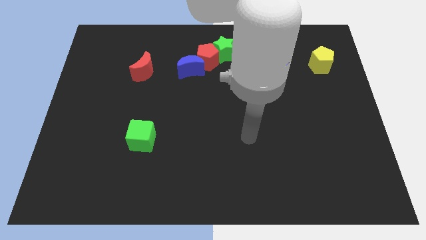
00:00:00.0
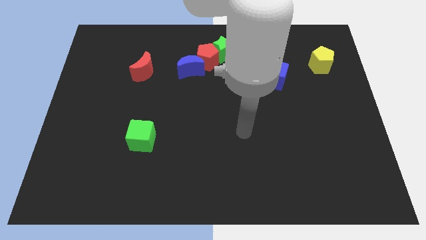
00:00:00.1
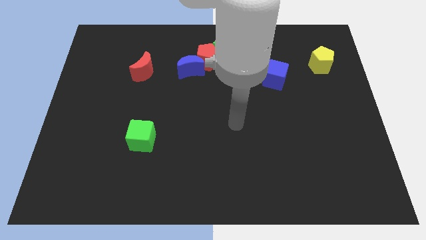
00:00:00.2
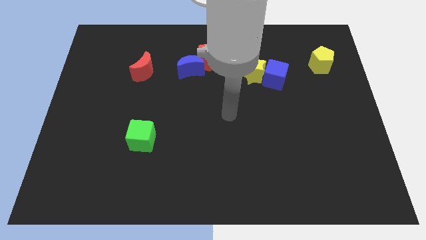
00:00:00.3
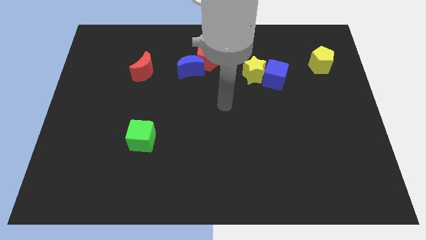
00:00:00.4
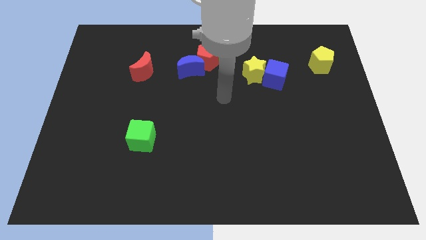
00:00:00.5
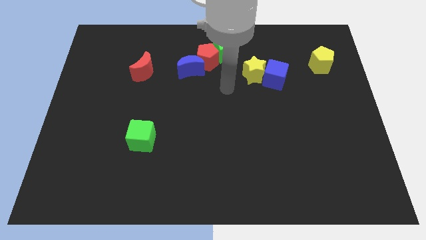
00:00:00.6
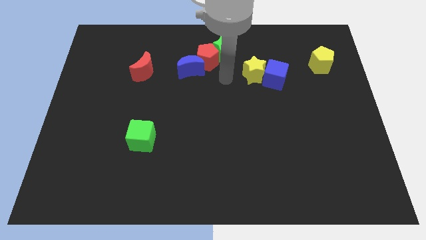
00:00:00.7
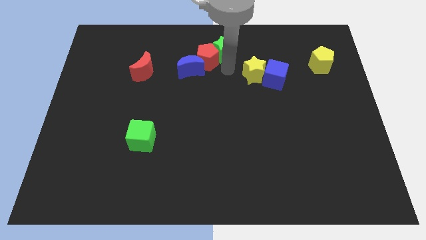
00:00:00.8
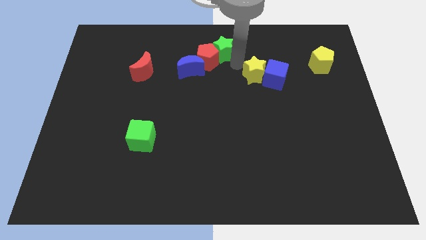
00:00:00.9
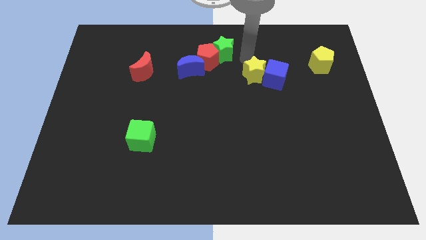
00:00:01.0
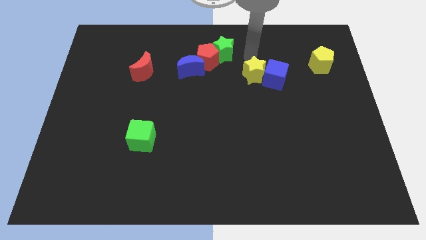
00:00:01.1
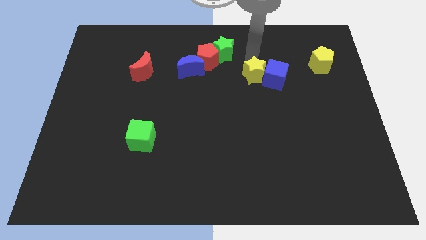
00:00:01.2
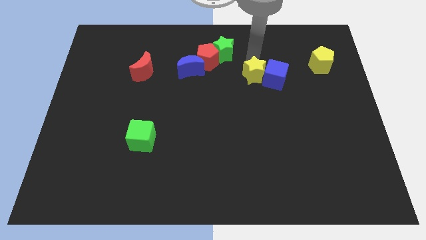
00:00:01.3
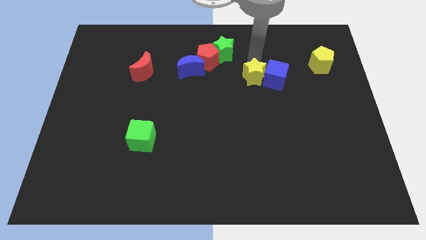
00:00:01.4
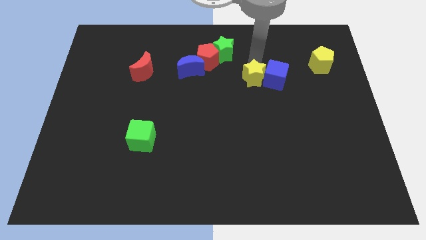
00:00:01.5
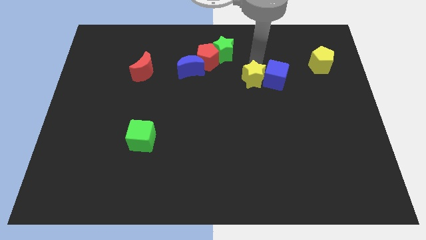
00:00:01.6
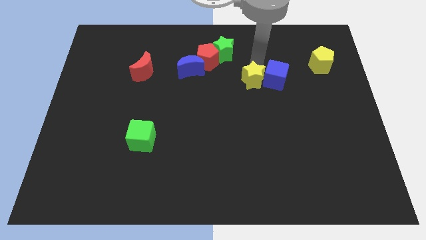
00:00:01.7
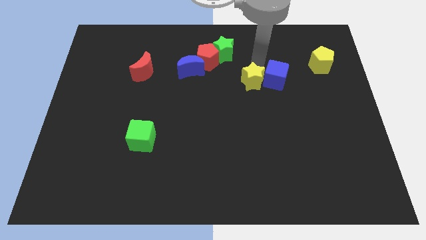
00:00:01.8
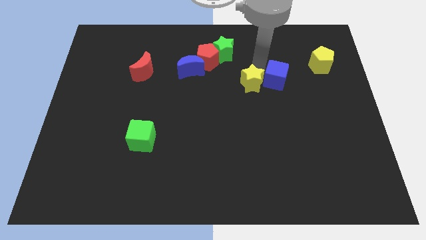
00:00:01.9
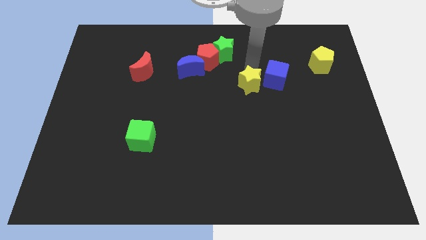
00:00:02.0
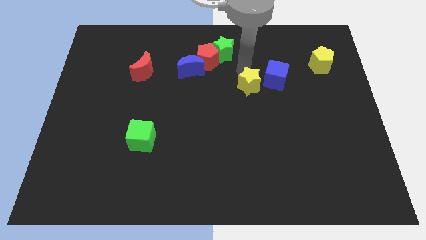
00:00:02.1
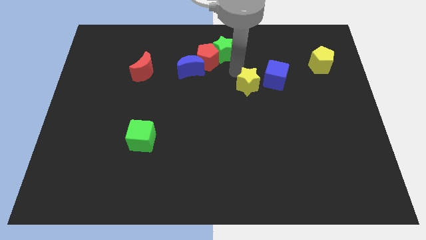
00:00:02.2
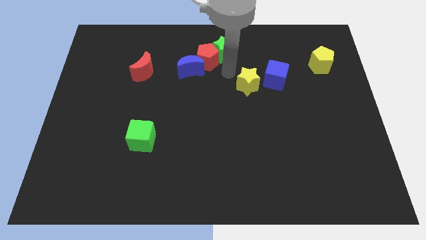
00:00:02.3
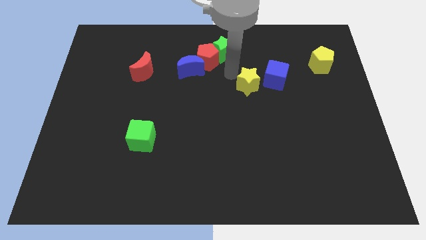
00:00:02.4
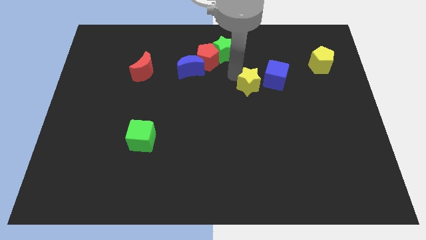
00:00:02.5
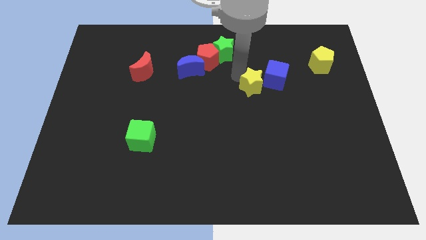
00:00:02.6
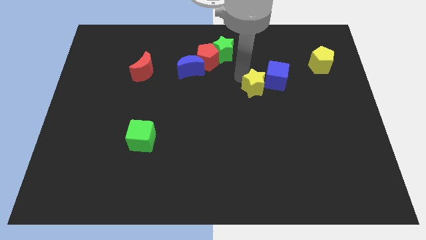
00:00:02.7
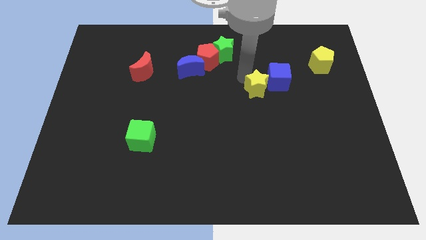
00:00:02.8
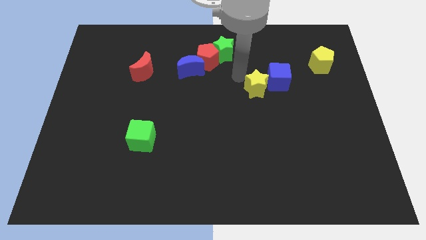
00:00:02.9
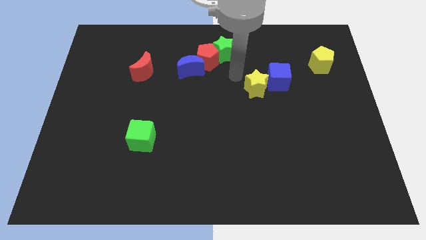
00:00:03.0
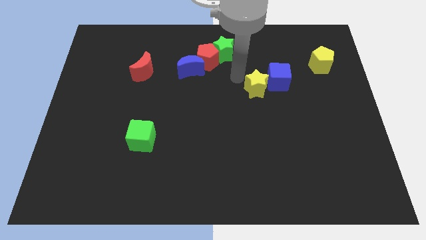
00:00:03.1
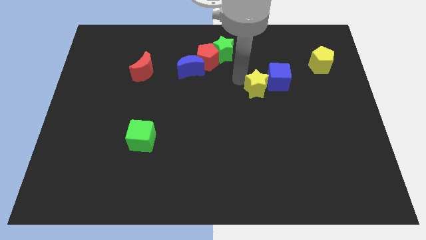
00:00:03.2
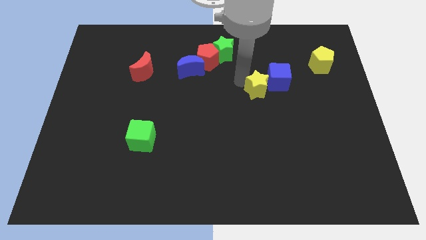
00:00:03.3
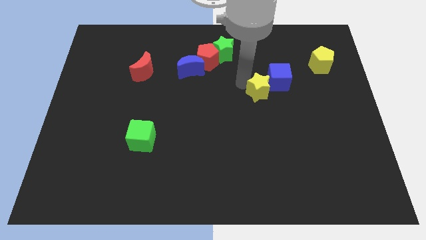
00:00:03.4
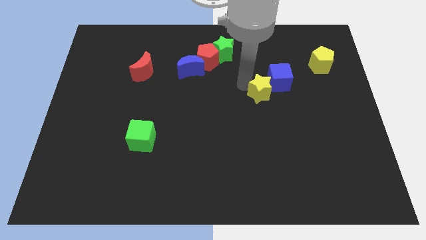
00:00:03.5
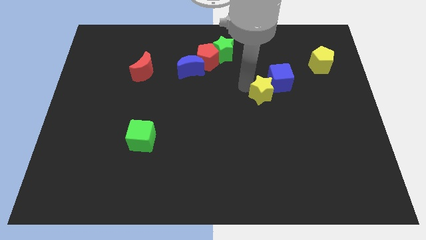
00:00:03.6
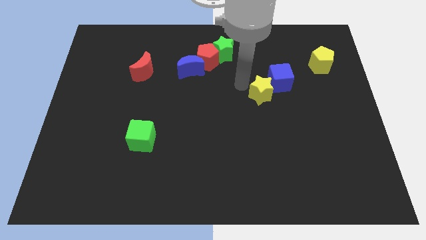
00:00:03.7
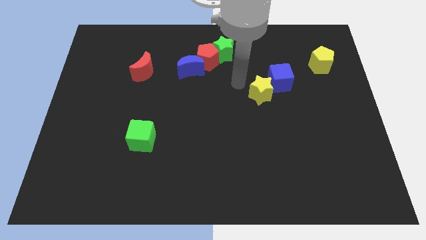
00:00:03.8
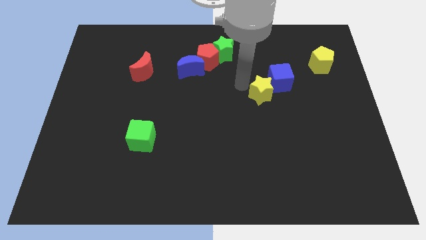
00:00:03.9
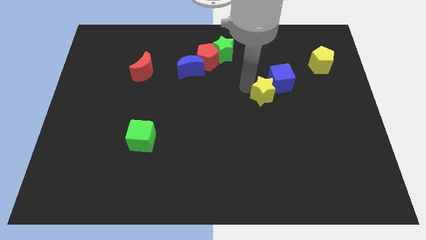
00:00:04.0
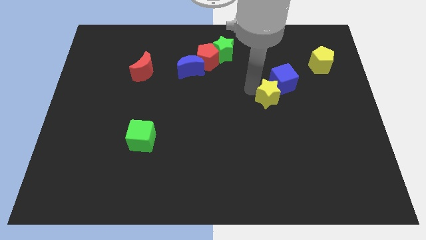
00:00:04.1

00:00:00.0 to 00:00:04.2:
push the yellow star slightly down and then to the right

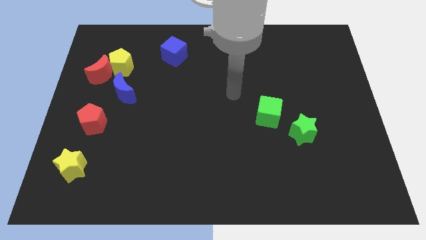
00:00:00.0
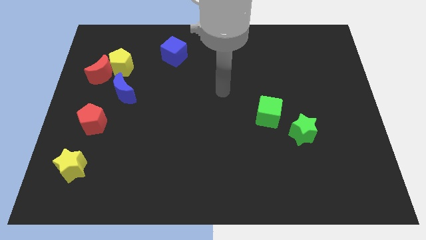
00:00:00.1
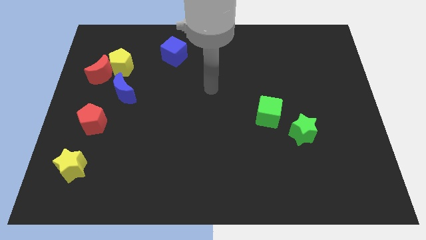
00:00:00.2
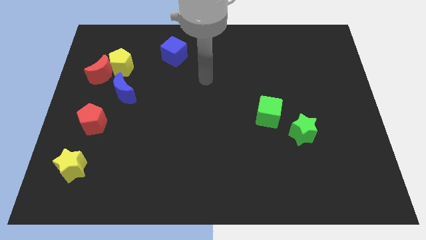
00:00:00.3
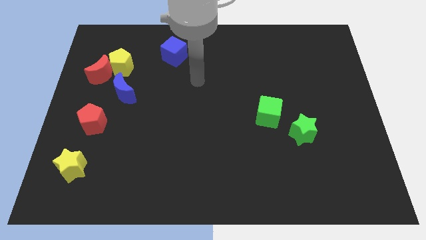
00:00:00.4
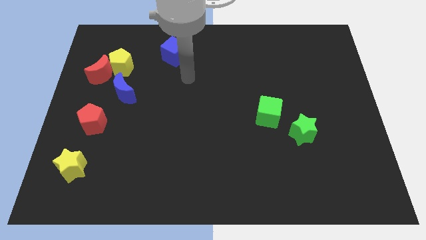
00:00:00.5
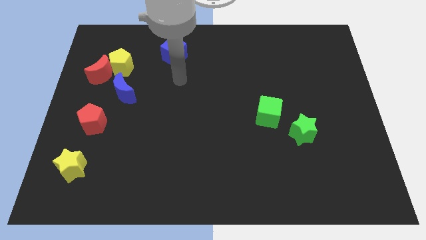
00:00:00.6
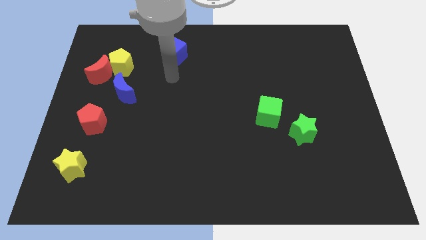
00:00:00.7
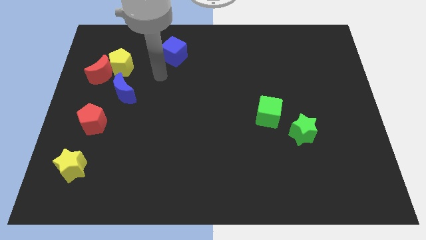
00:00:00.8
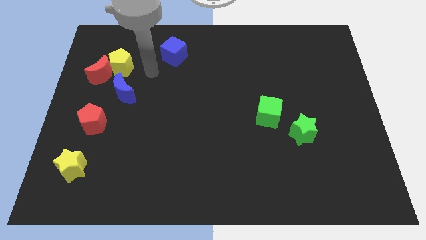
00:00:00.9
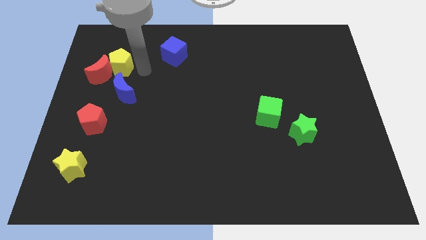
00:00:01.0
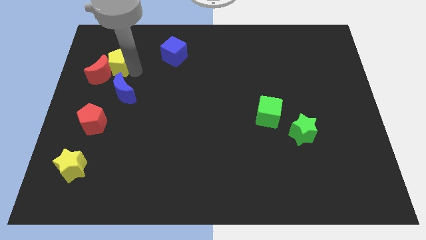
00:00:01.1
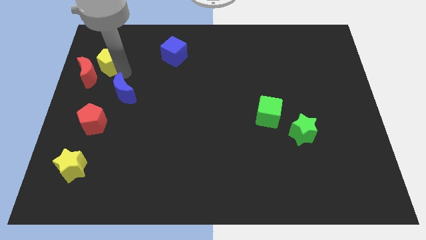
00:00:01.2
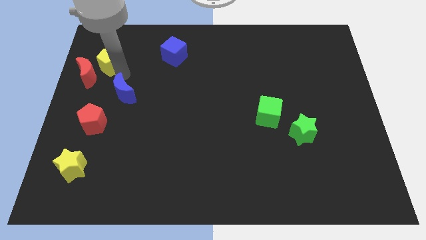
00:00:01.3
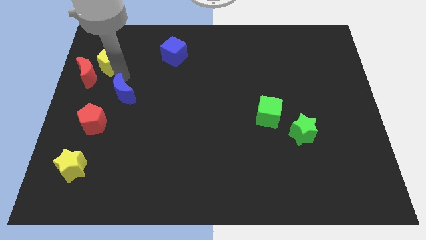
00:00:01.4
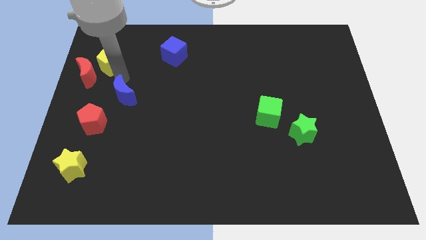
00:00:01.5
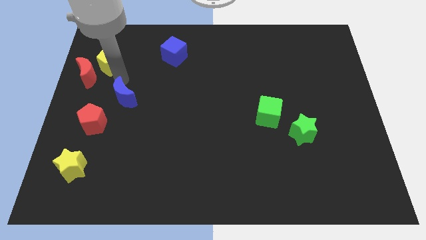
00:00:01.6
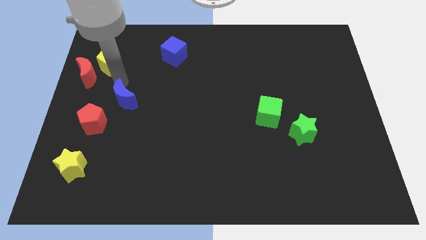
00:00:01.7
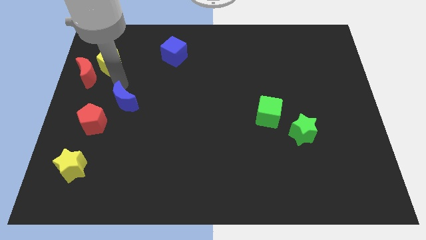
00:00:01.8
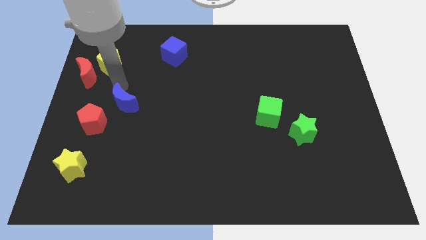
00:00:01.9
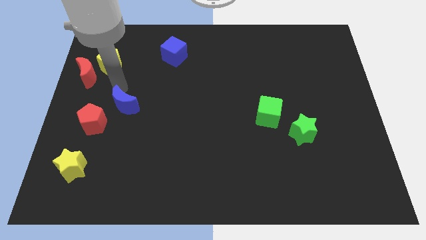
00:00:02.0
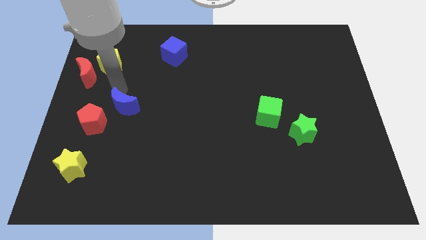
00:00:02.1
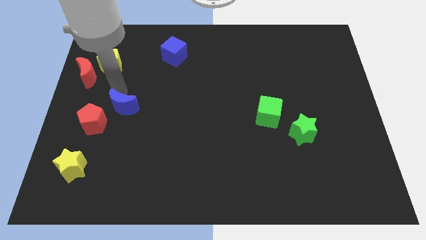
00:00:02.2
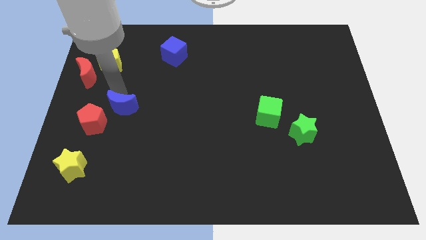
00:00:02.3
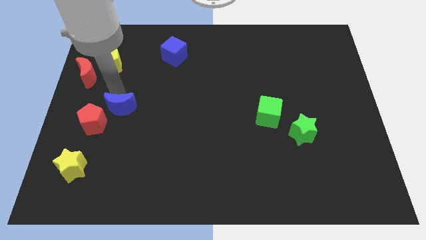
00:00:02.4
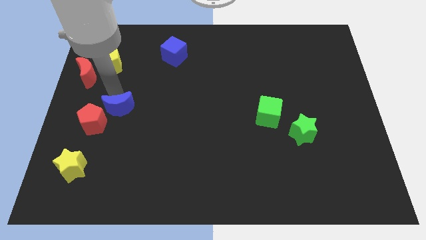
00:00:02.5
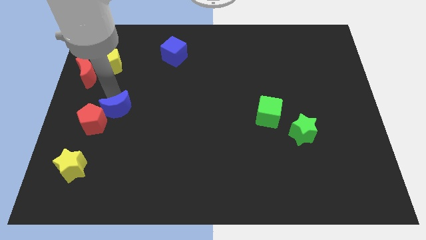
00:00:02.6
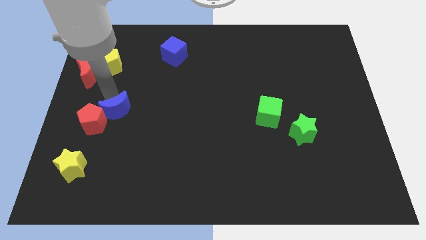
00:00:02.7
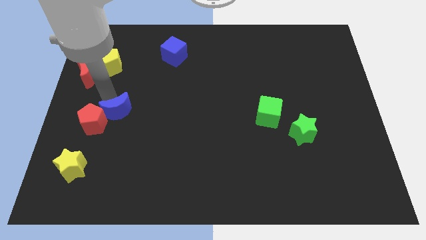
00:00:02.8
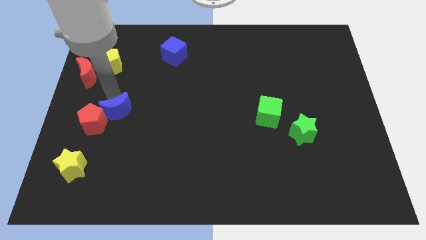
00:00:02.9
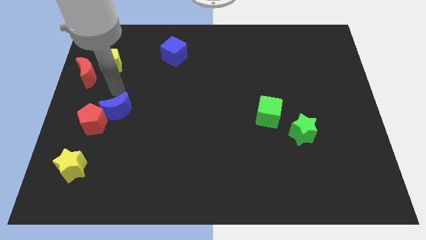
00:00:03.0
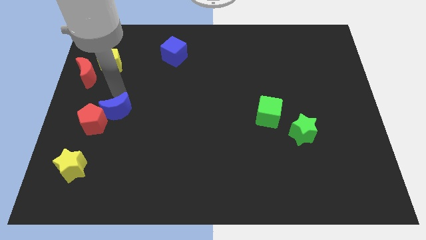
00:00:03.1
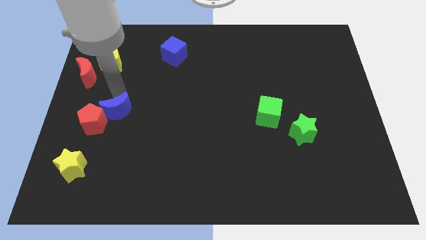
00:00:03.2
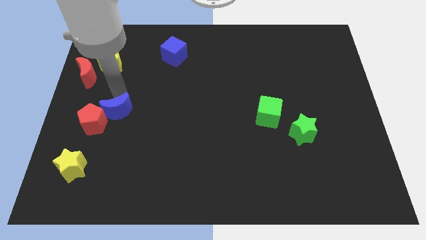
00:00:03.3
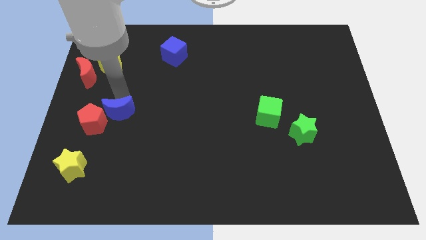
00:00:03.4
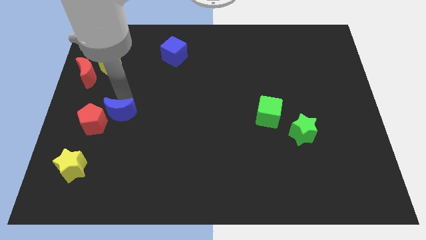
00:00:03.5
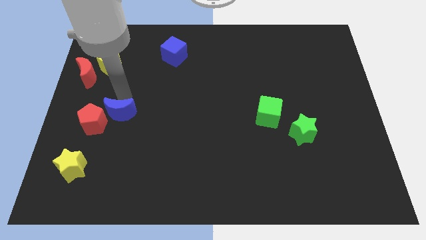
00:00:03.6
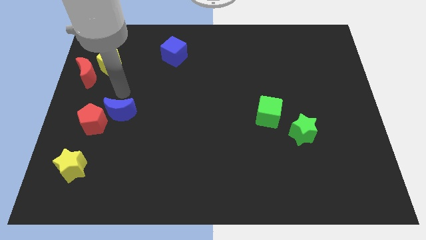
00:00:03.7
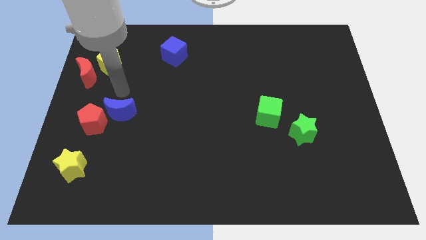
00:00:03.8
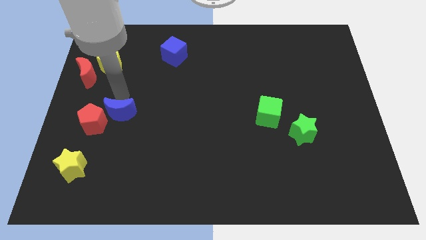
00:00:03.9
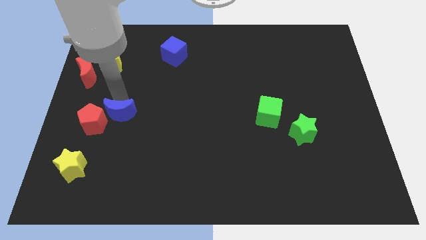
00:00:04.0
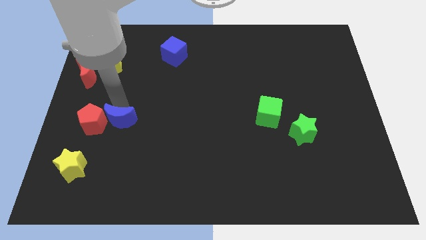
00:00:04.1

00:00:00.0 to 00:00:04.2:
push the blue moon downwards somewhat
